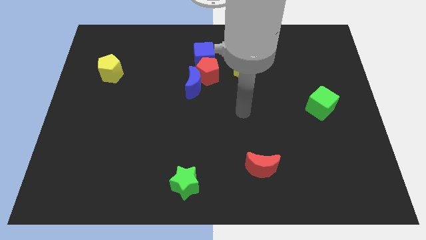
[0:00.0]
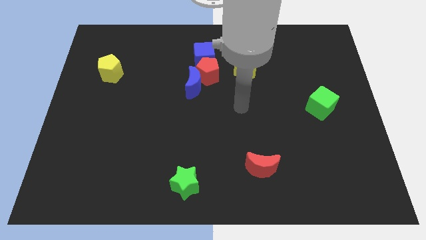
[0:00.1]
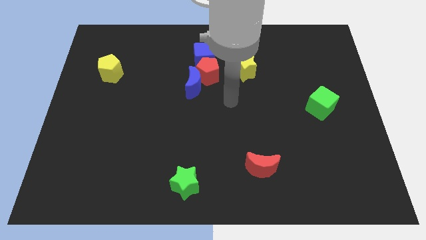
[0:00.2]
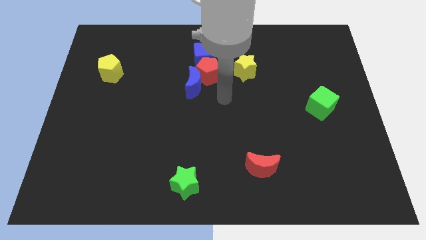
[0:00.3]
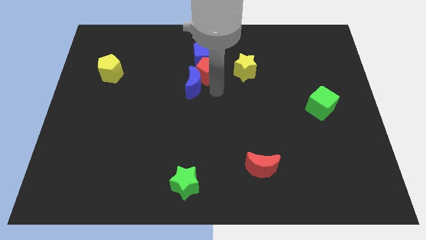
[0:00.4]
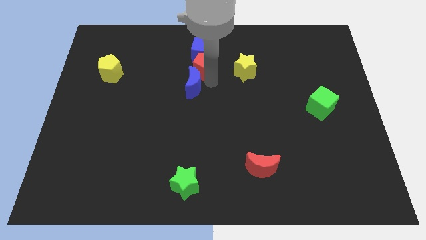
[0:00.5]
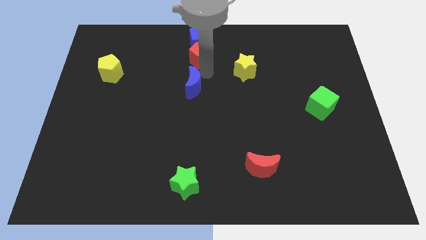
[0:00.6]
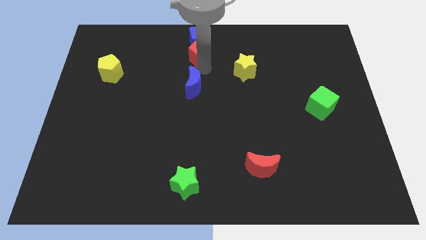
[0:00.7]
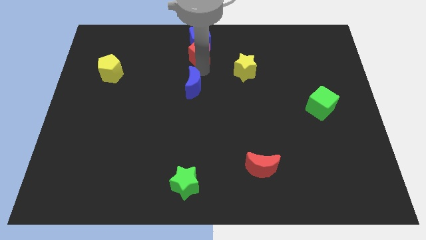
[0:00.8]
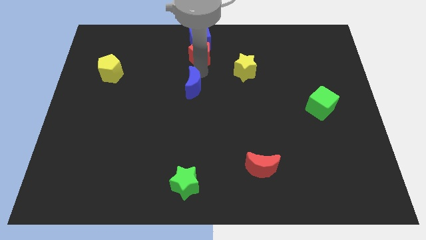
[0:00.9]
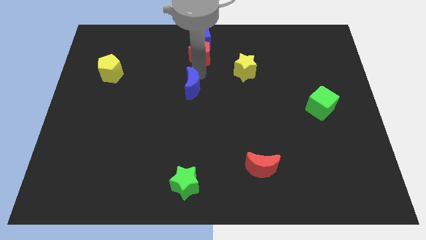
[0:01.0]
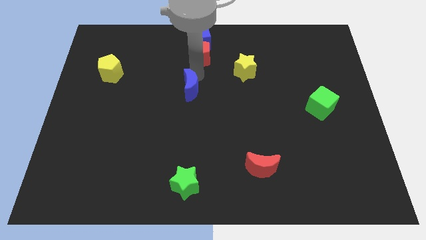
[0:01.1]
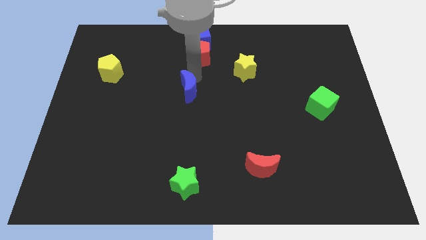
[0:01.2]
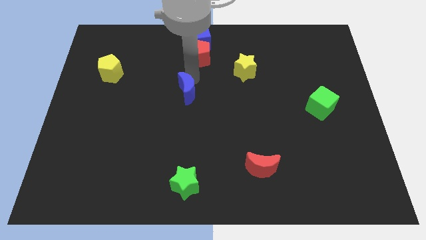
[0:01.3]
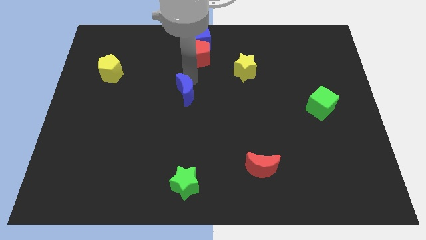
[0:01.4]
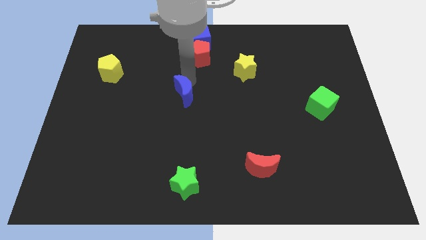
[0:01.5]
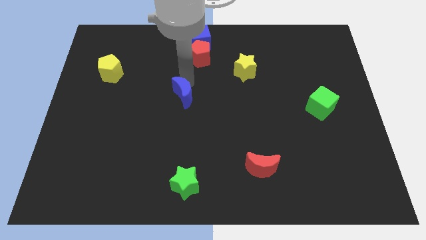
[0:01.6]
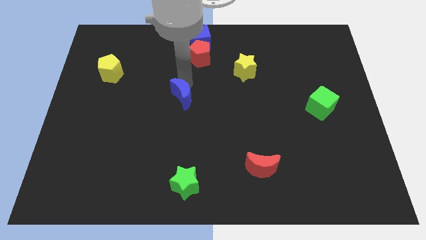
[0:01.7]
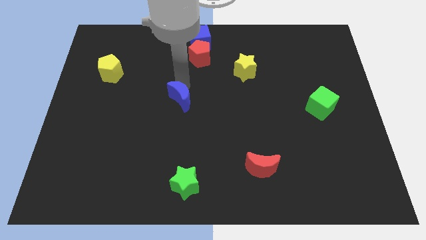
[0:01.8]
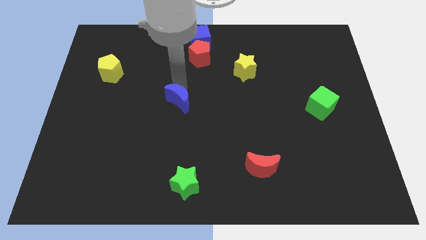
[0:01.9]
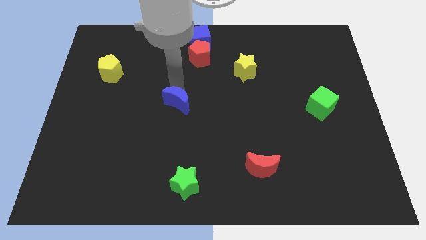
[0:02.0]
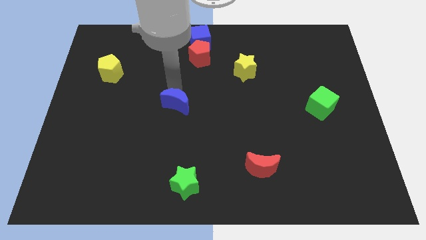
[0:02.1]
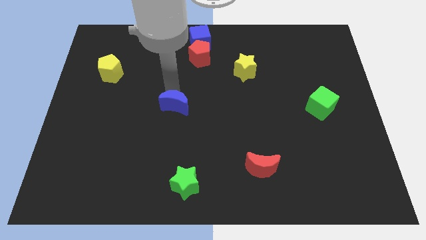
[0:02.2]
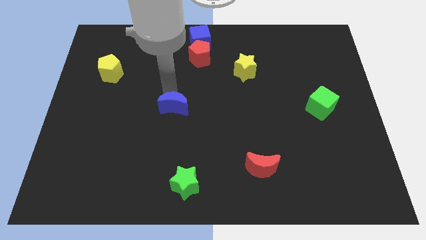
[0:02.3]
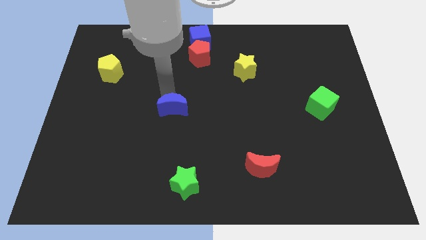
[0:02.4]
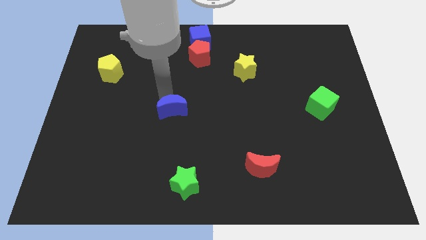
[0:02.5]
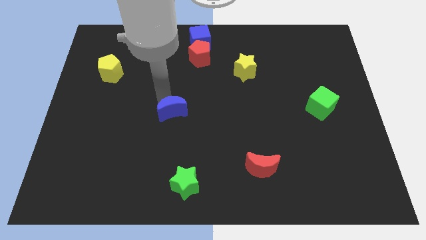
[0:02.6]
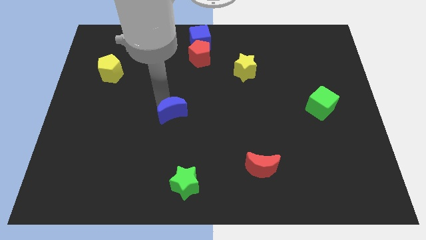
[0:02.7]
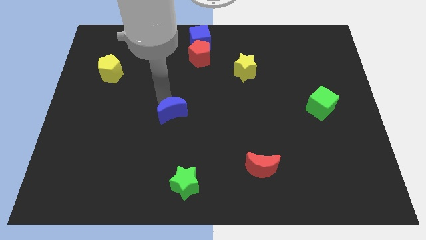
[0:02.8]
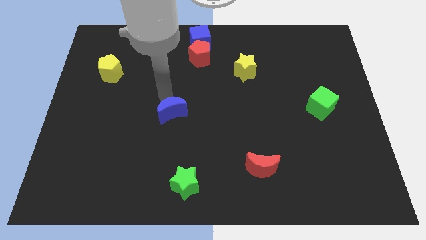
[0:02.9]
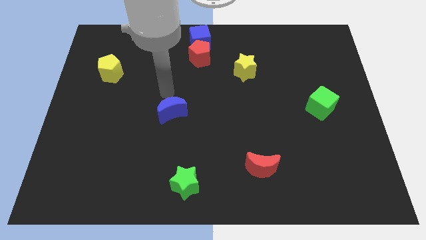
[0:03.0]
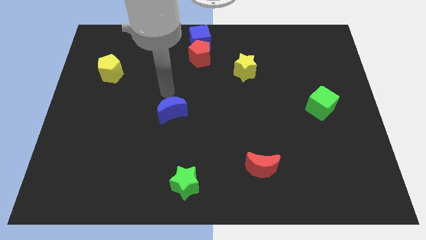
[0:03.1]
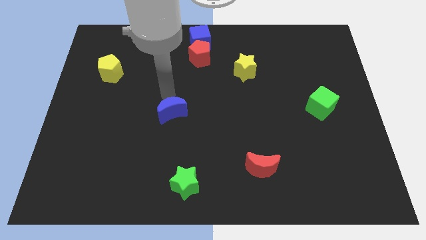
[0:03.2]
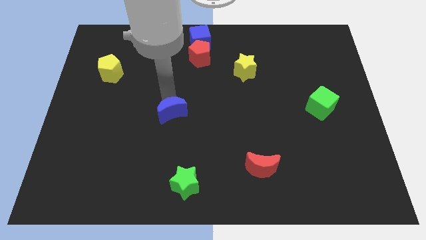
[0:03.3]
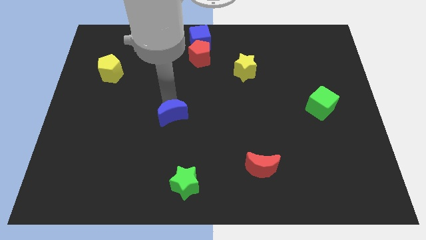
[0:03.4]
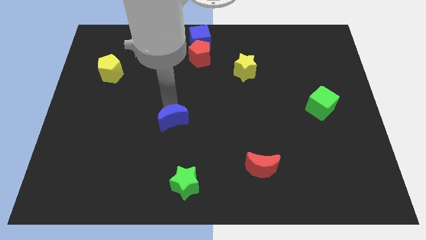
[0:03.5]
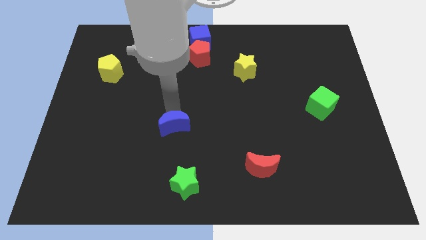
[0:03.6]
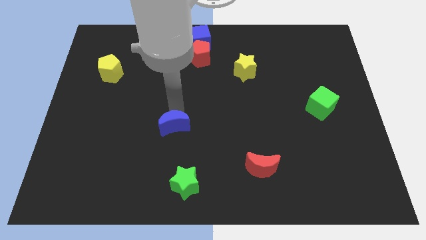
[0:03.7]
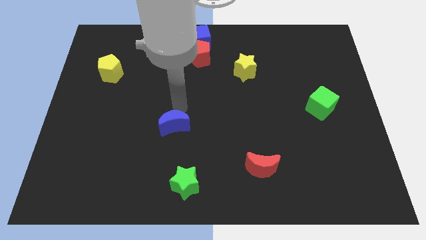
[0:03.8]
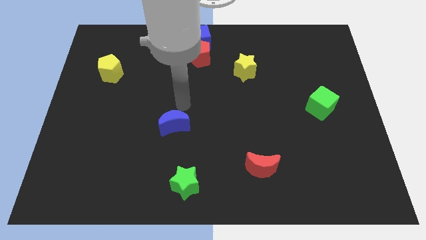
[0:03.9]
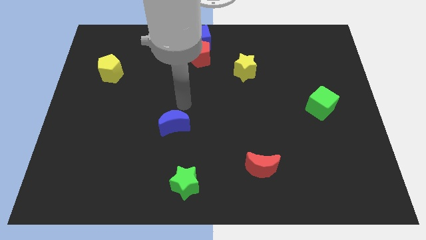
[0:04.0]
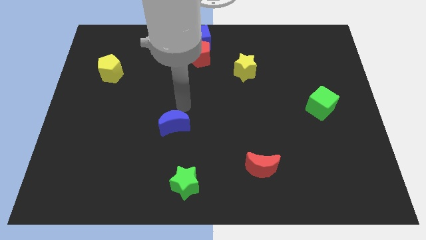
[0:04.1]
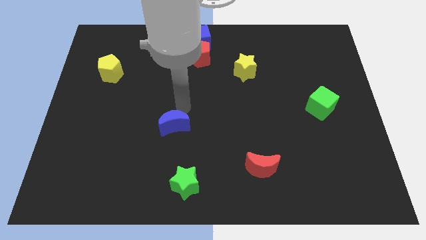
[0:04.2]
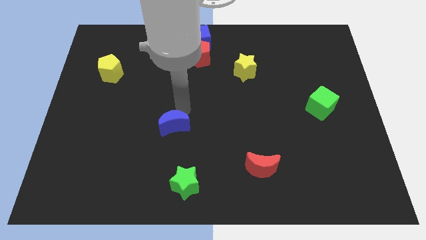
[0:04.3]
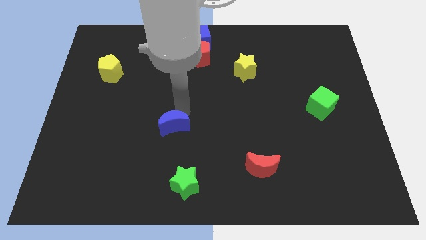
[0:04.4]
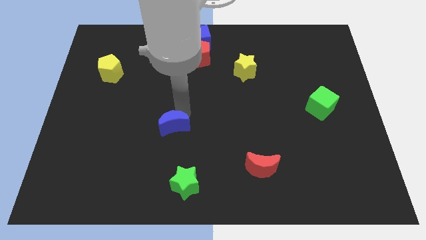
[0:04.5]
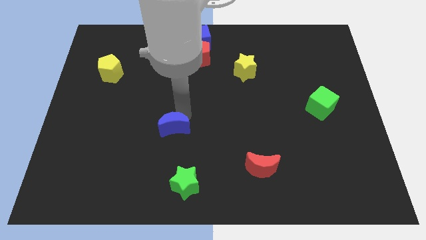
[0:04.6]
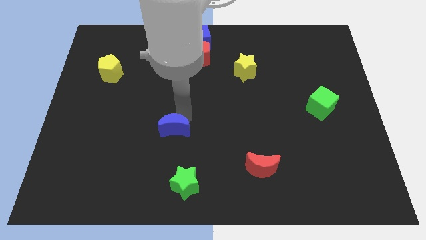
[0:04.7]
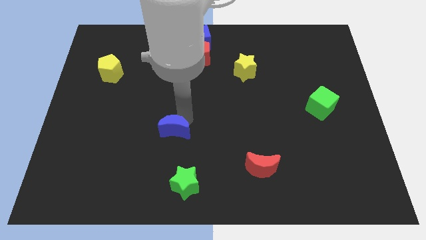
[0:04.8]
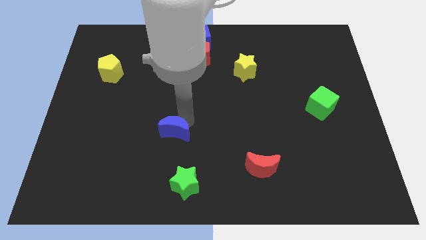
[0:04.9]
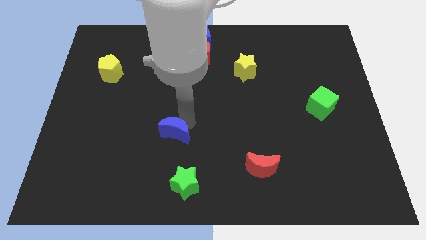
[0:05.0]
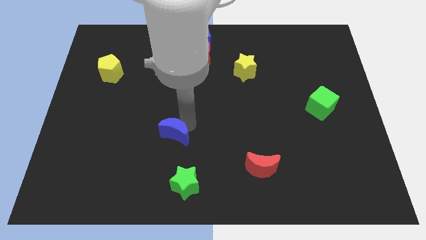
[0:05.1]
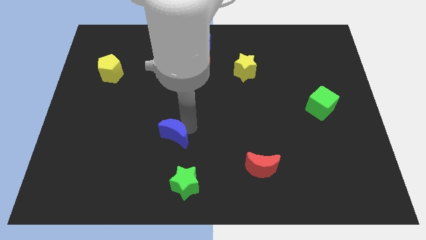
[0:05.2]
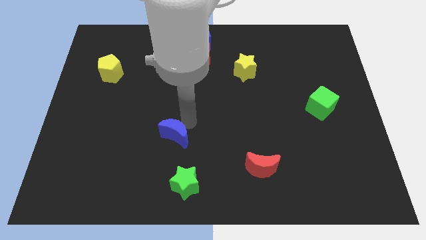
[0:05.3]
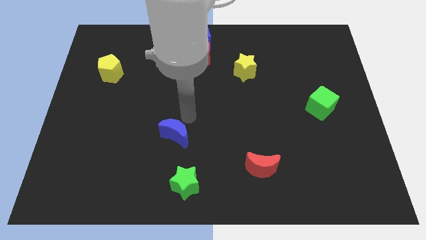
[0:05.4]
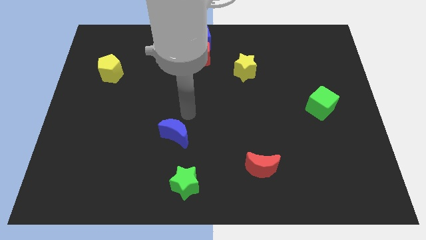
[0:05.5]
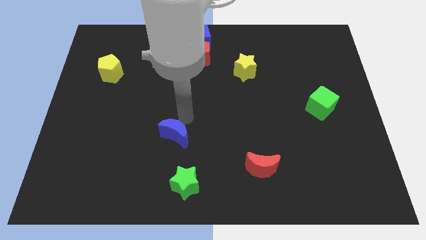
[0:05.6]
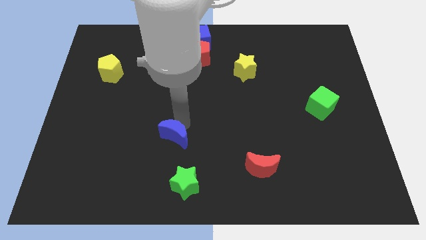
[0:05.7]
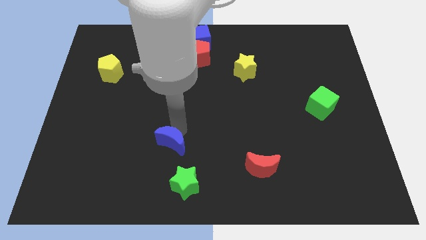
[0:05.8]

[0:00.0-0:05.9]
slide the blue moon to the top left side of the green star

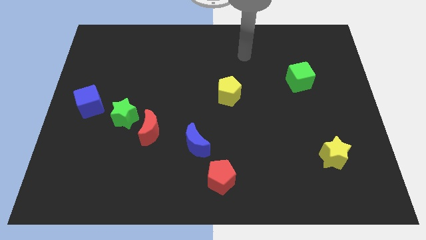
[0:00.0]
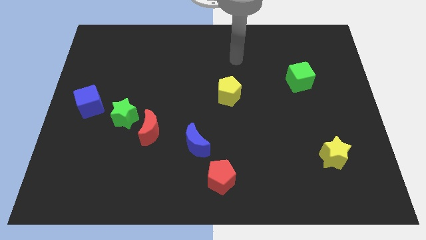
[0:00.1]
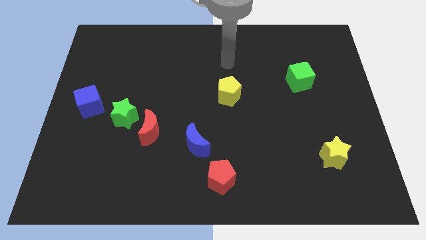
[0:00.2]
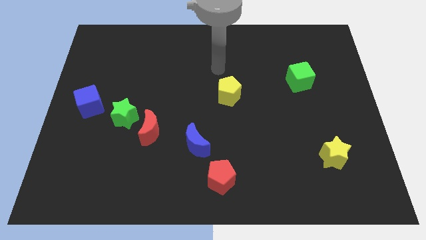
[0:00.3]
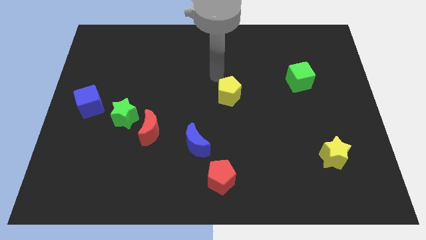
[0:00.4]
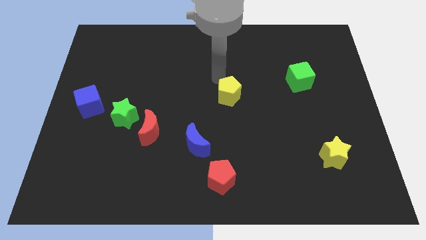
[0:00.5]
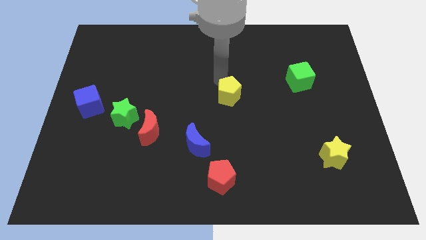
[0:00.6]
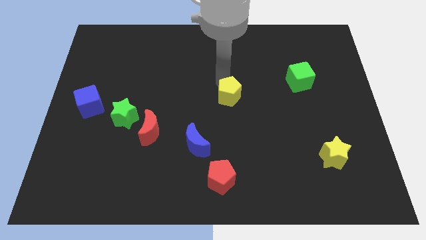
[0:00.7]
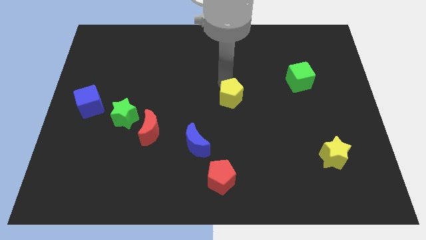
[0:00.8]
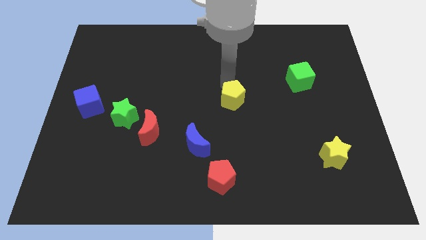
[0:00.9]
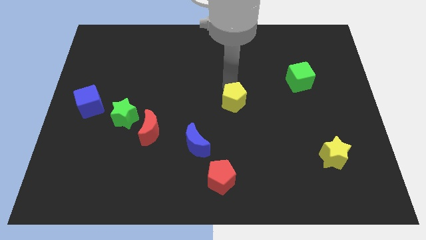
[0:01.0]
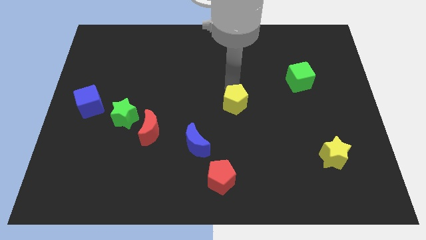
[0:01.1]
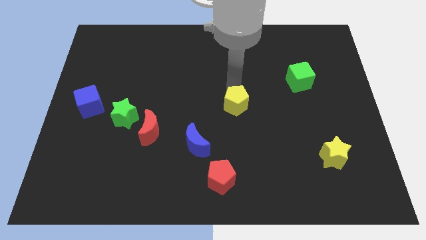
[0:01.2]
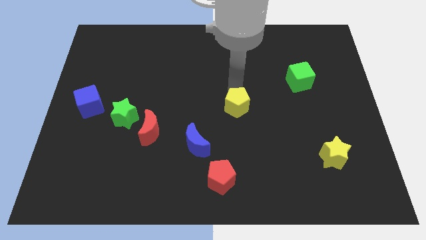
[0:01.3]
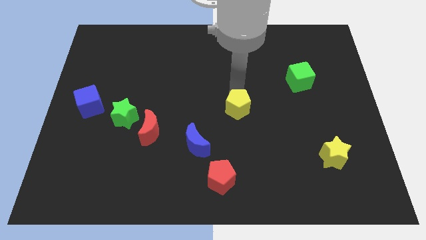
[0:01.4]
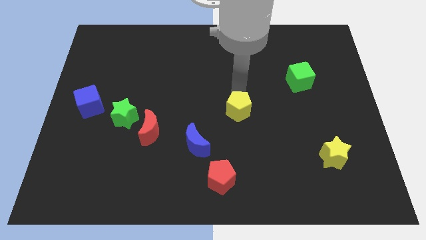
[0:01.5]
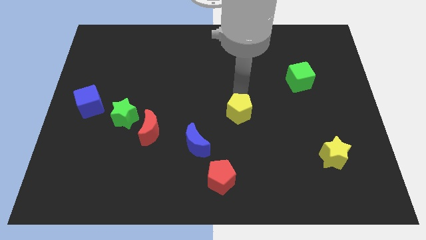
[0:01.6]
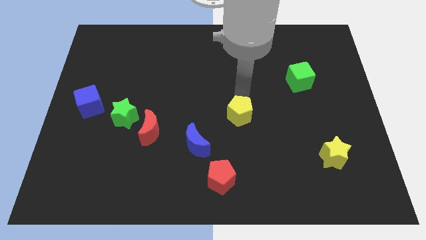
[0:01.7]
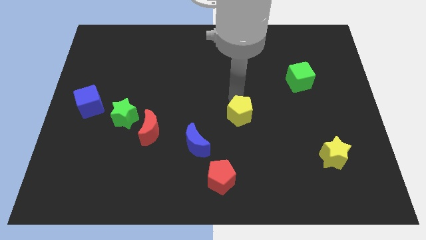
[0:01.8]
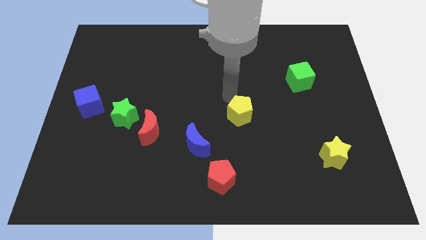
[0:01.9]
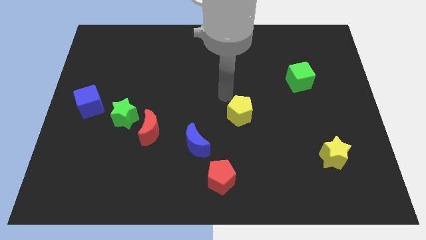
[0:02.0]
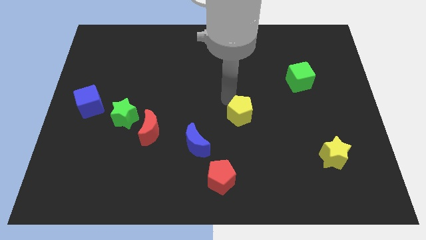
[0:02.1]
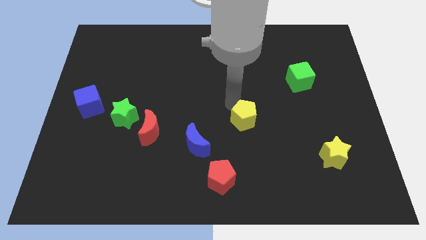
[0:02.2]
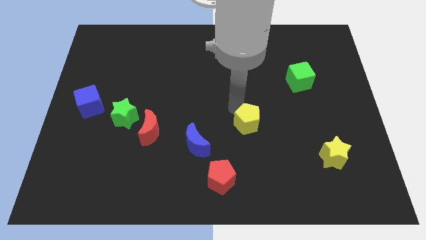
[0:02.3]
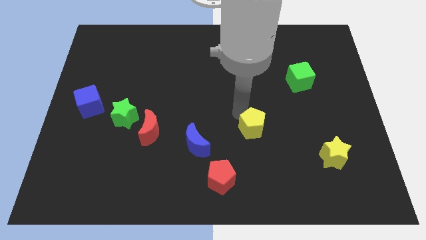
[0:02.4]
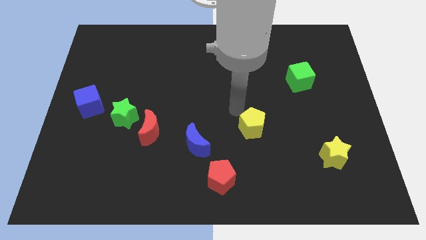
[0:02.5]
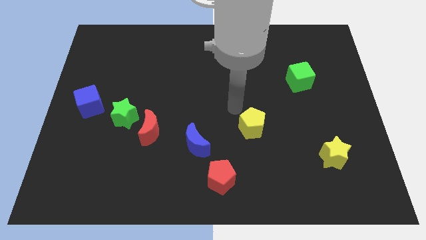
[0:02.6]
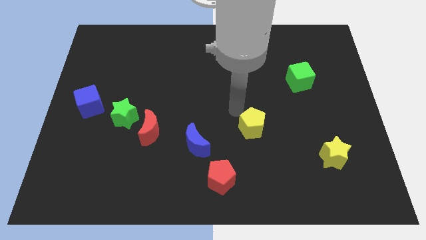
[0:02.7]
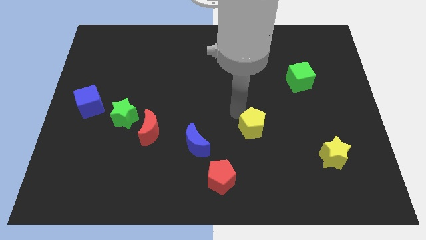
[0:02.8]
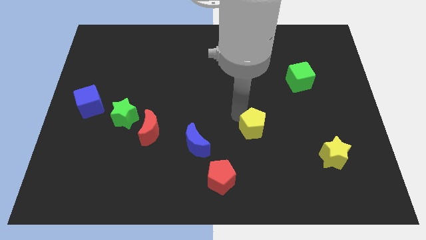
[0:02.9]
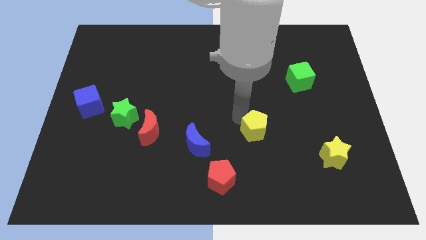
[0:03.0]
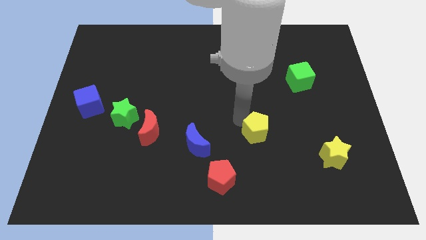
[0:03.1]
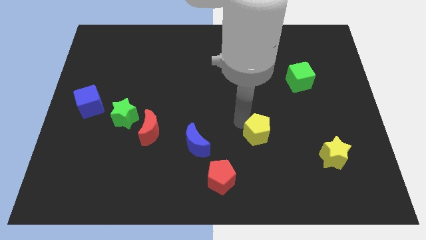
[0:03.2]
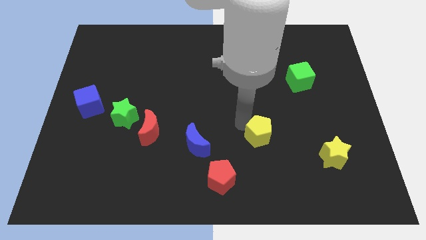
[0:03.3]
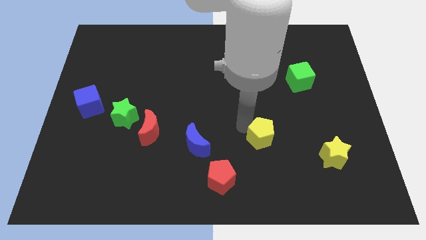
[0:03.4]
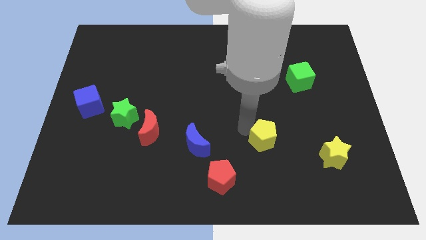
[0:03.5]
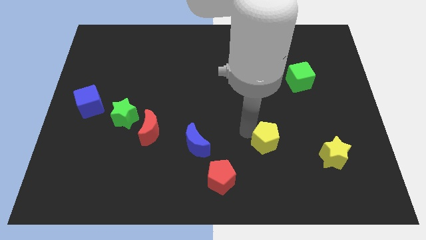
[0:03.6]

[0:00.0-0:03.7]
push the yellow pentagon to the left side of the yellow star
